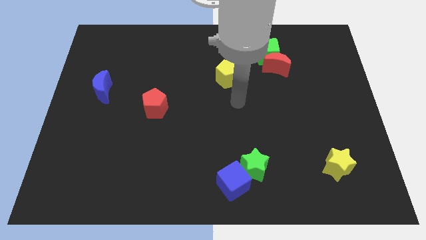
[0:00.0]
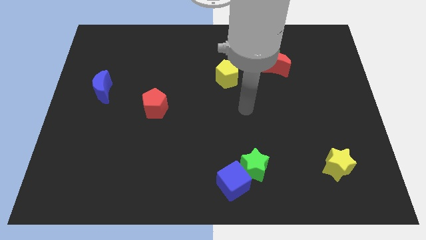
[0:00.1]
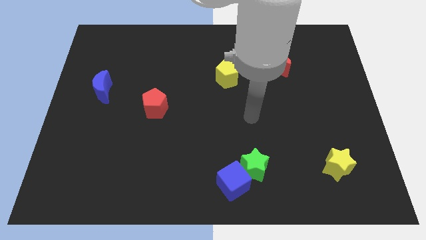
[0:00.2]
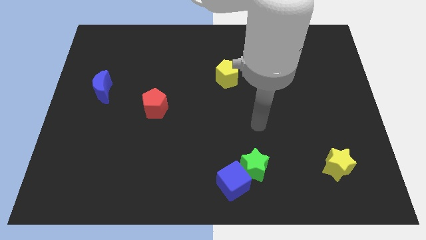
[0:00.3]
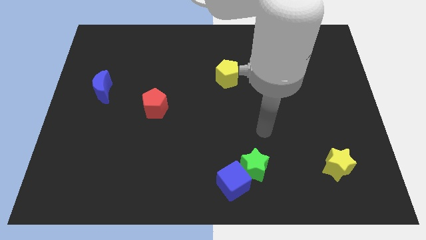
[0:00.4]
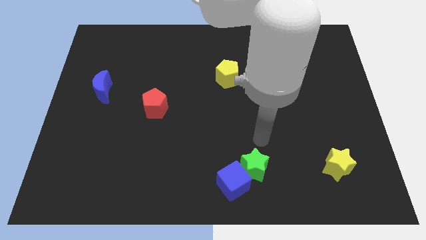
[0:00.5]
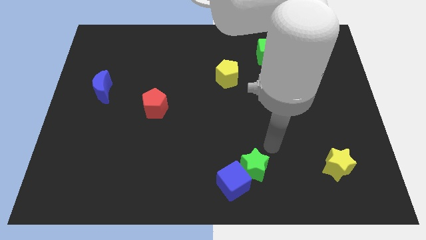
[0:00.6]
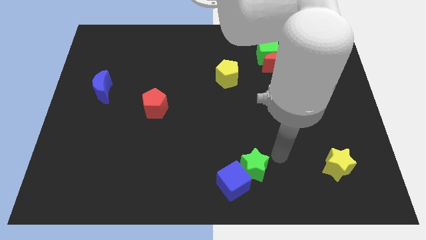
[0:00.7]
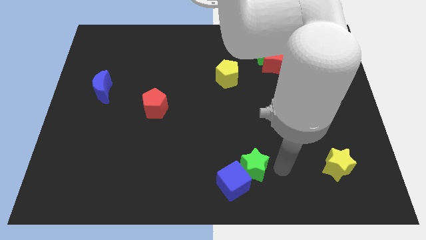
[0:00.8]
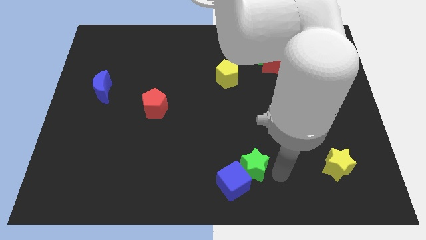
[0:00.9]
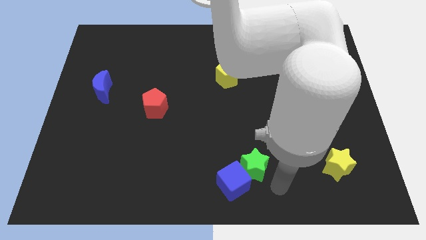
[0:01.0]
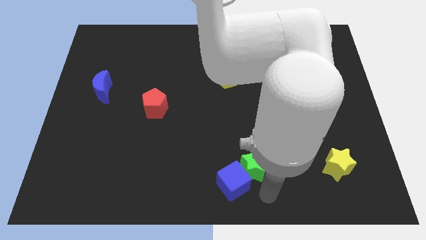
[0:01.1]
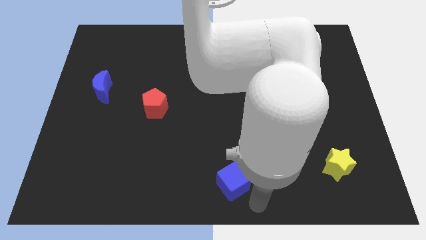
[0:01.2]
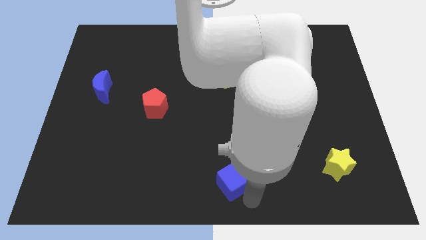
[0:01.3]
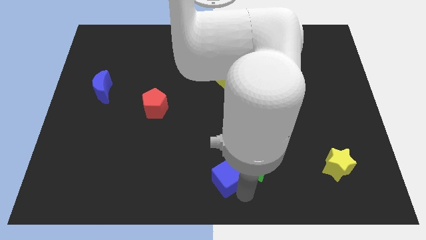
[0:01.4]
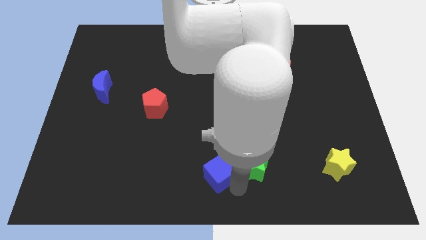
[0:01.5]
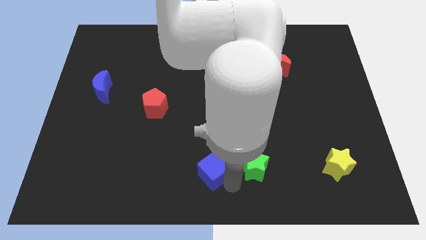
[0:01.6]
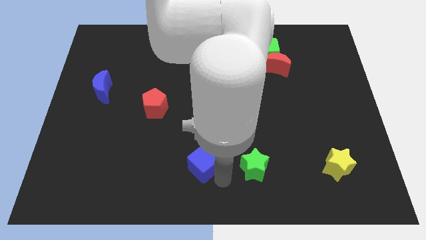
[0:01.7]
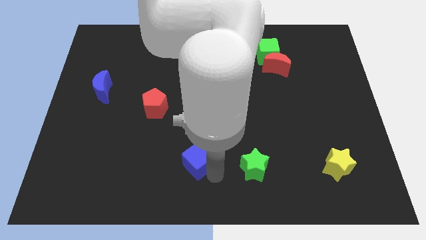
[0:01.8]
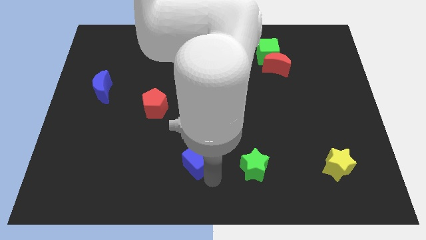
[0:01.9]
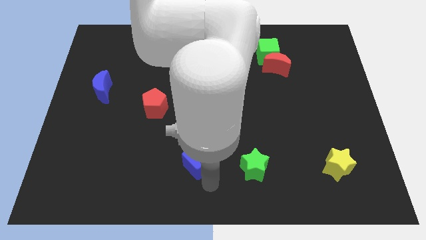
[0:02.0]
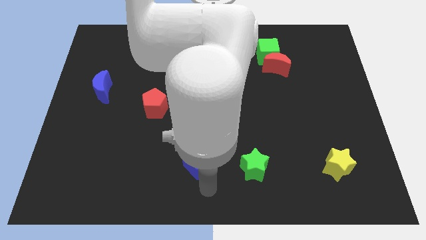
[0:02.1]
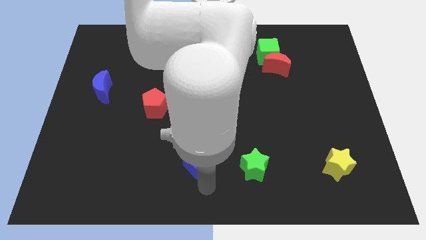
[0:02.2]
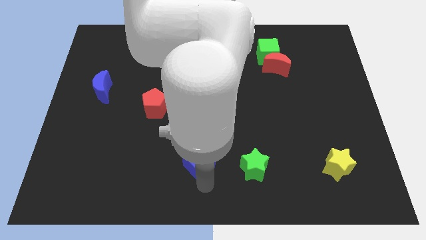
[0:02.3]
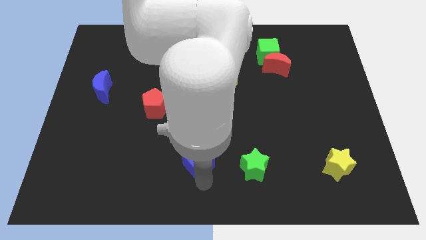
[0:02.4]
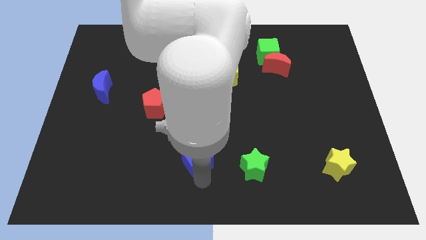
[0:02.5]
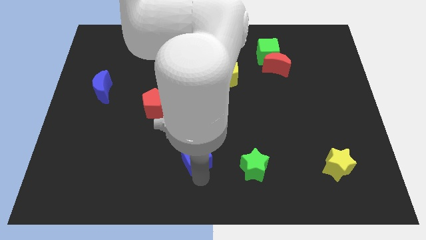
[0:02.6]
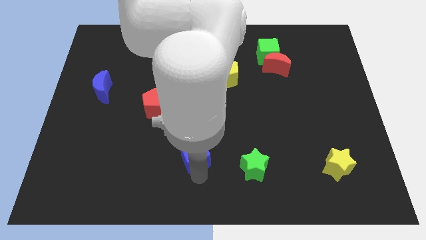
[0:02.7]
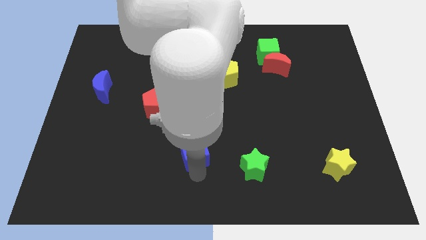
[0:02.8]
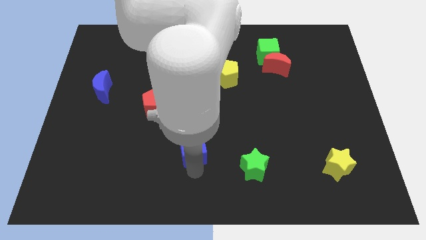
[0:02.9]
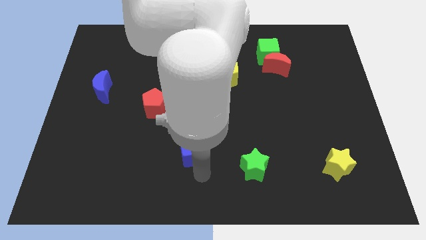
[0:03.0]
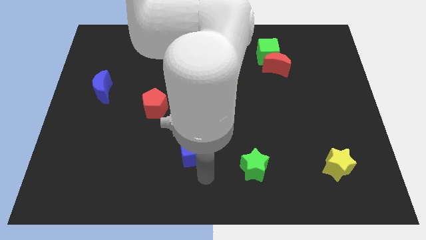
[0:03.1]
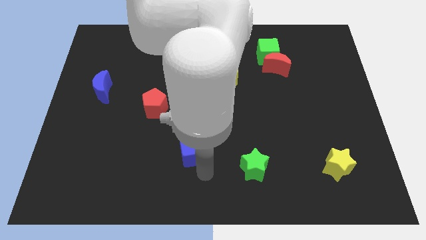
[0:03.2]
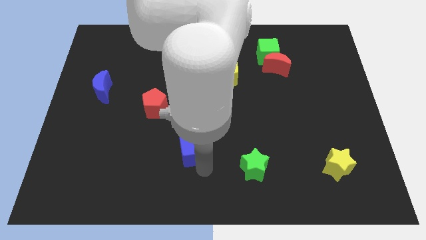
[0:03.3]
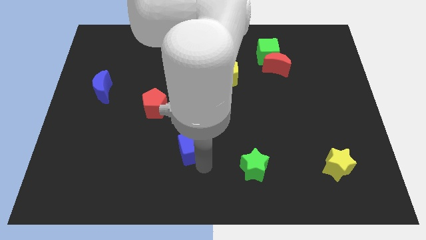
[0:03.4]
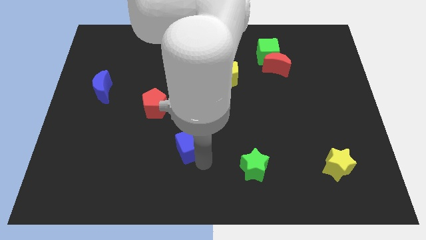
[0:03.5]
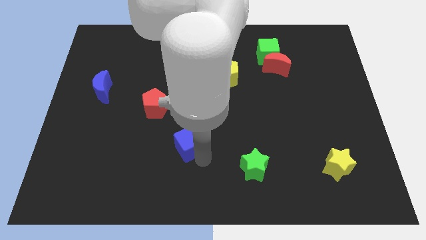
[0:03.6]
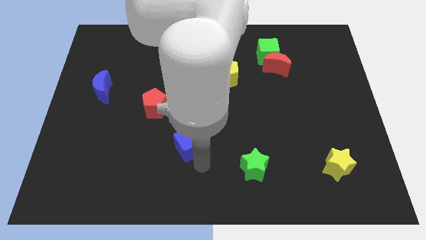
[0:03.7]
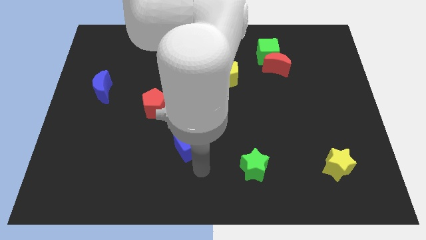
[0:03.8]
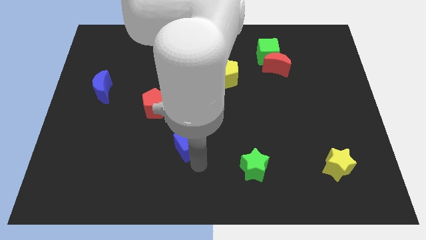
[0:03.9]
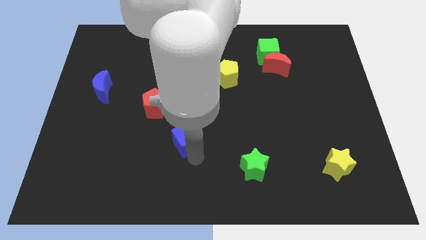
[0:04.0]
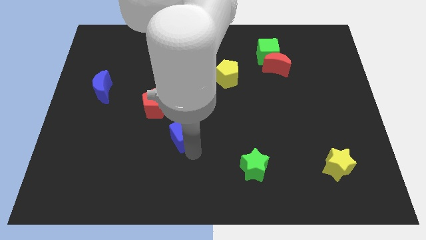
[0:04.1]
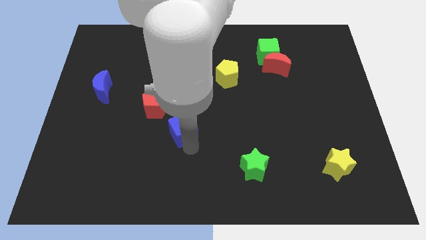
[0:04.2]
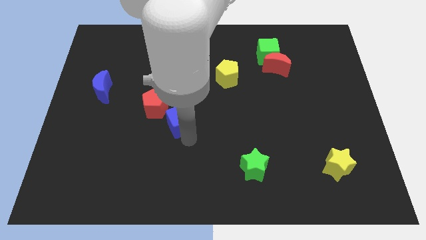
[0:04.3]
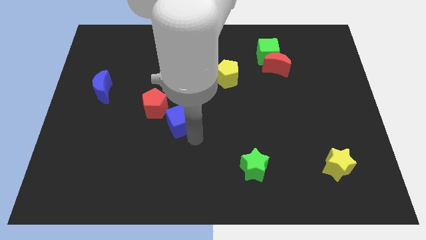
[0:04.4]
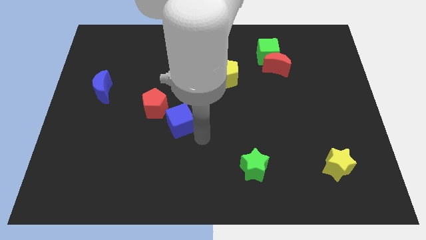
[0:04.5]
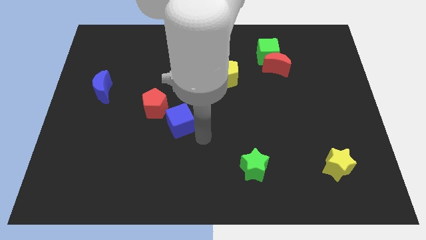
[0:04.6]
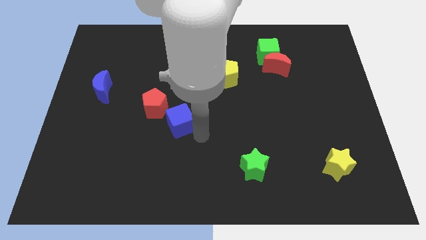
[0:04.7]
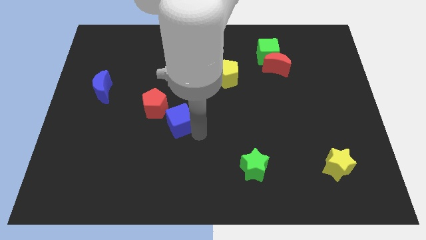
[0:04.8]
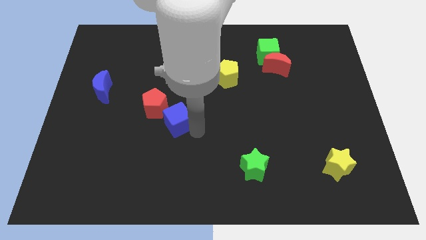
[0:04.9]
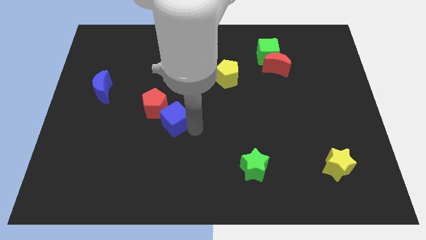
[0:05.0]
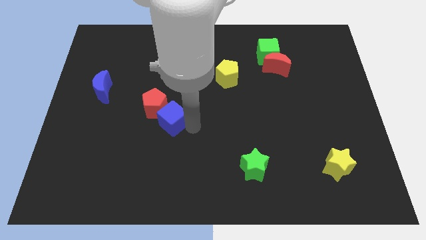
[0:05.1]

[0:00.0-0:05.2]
push the blue cube towards the red pentagon

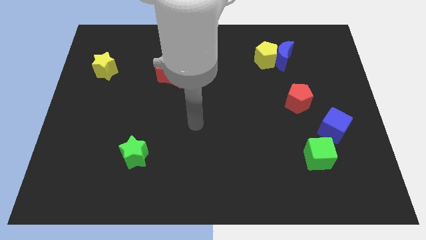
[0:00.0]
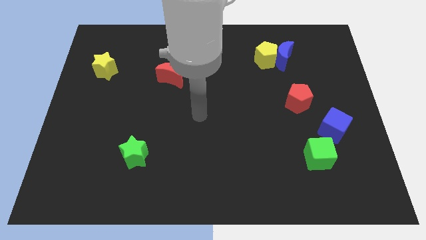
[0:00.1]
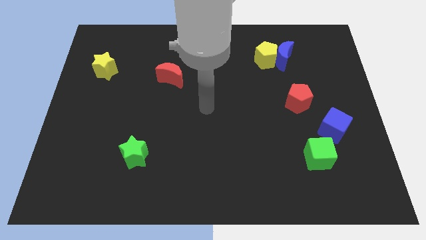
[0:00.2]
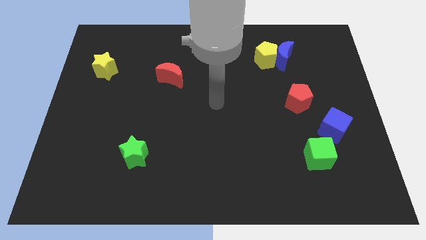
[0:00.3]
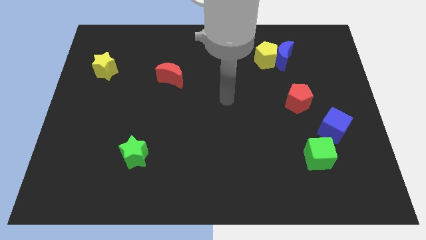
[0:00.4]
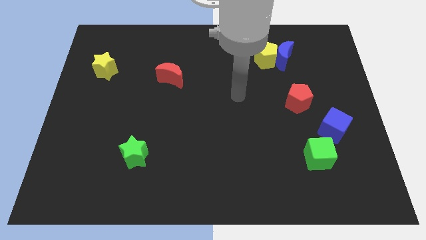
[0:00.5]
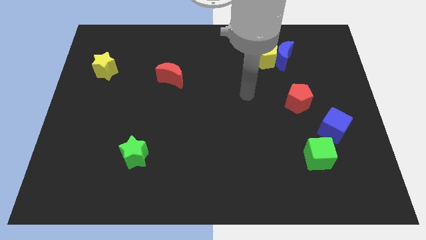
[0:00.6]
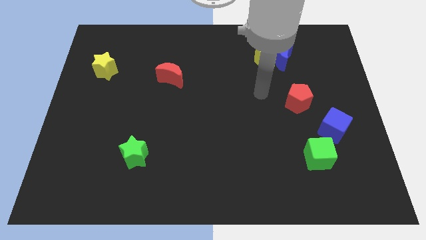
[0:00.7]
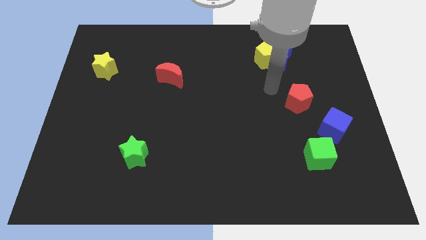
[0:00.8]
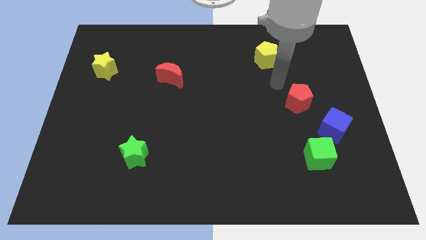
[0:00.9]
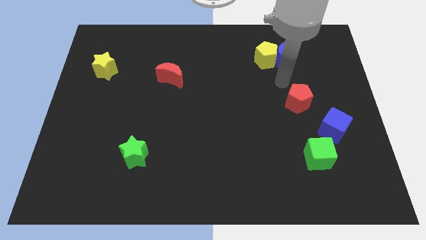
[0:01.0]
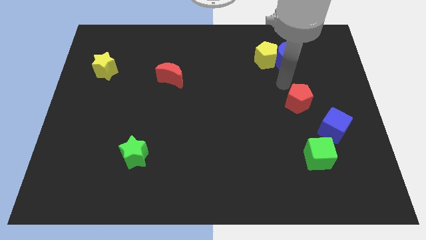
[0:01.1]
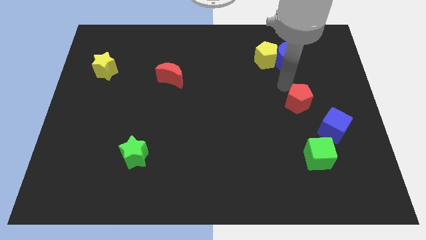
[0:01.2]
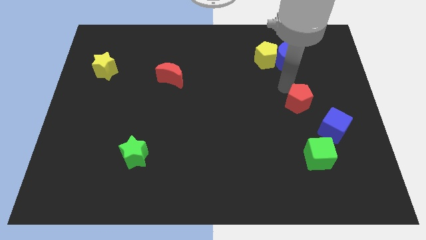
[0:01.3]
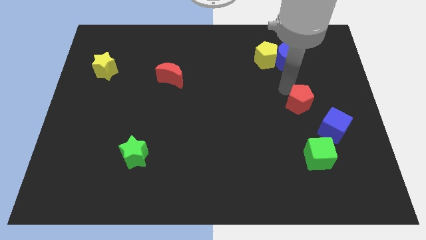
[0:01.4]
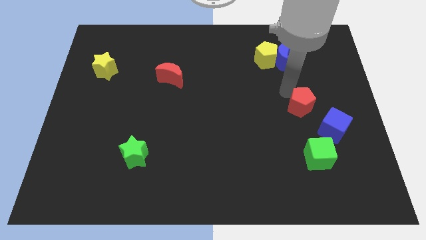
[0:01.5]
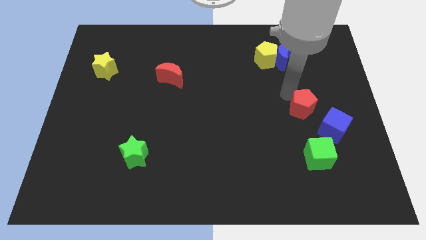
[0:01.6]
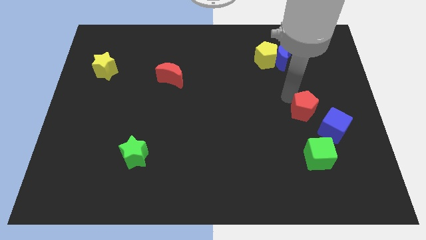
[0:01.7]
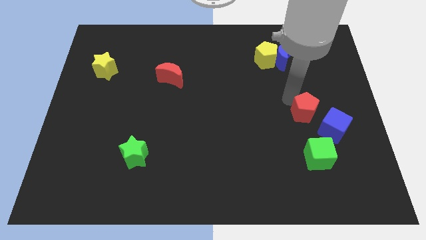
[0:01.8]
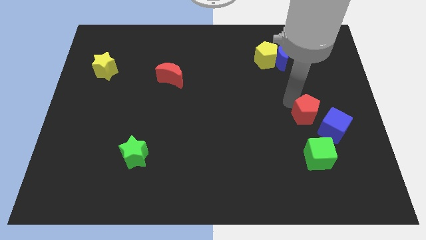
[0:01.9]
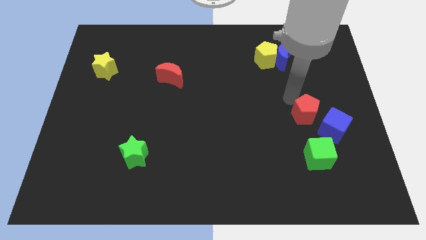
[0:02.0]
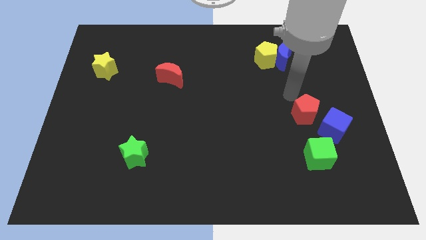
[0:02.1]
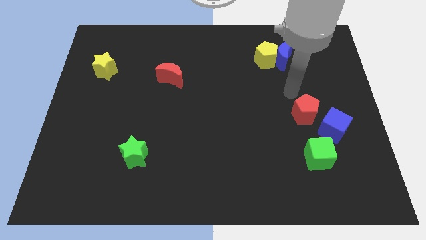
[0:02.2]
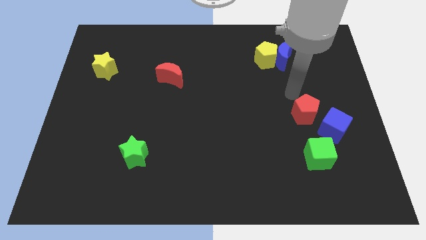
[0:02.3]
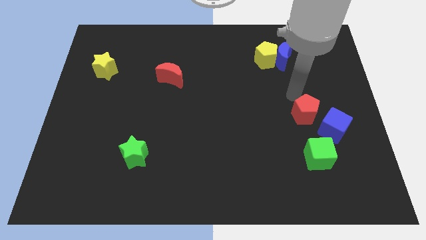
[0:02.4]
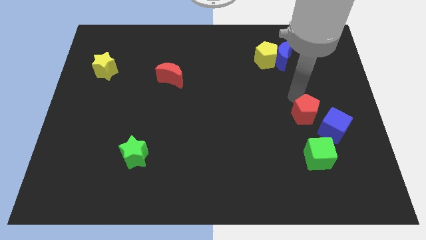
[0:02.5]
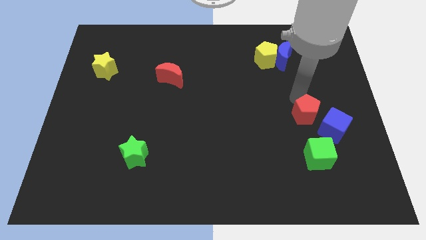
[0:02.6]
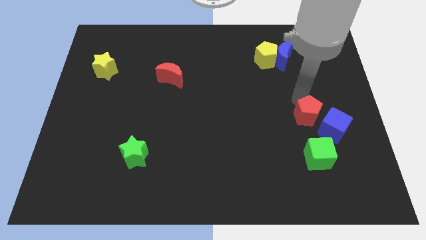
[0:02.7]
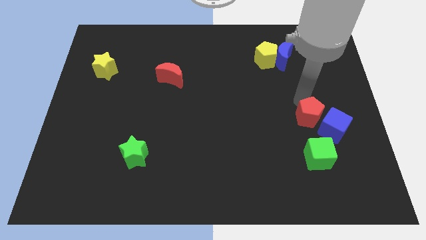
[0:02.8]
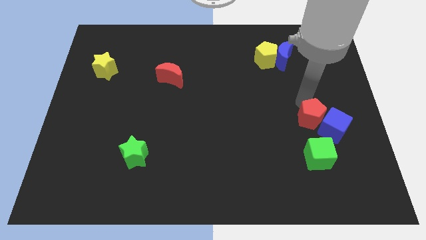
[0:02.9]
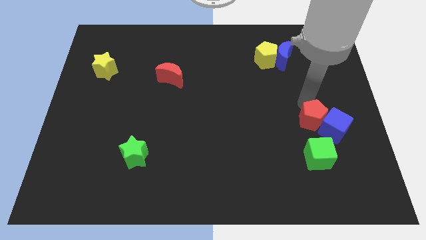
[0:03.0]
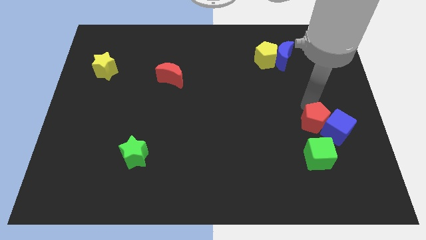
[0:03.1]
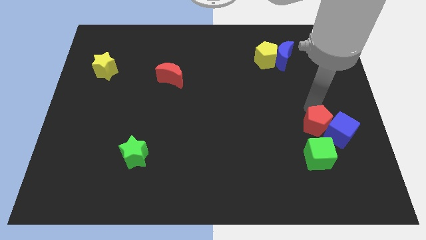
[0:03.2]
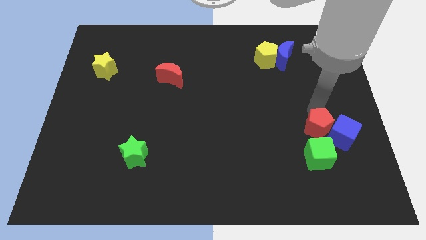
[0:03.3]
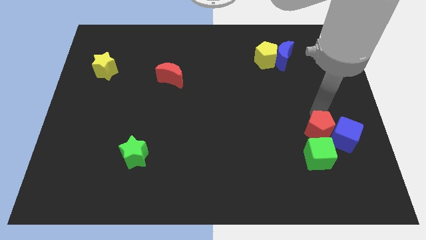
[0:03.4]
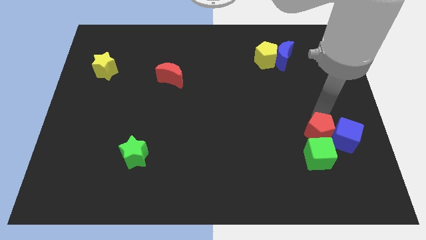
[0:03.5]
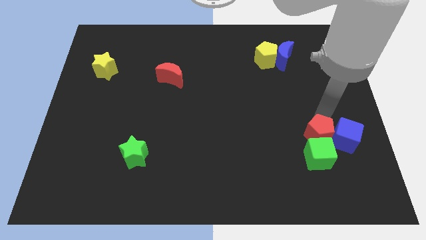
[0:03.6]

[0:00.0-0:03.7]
put the red pentagon to the green cube
